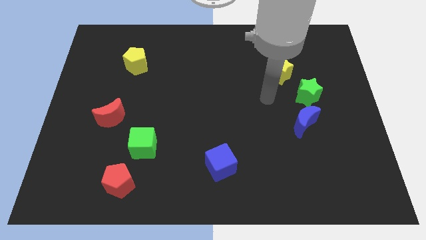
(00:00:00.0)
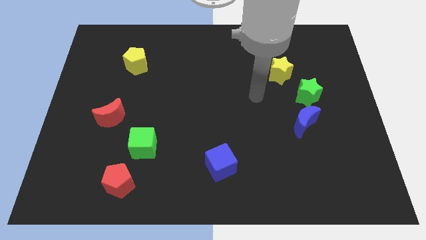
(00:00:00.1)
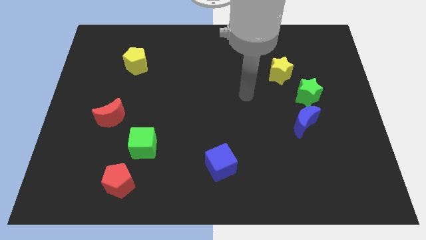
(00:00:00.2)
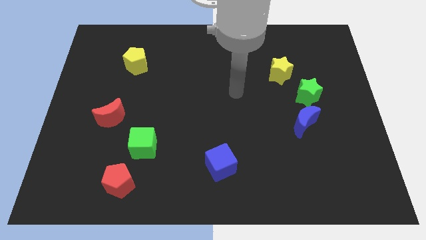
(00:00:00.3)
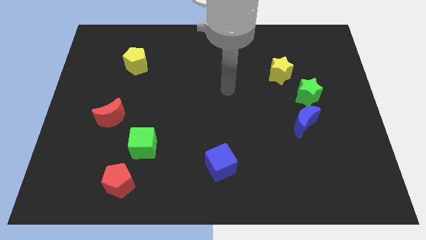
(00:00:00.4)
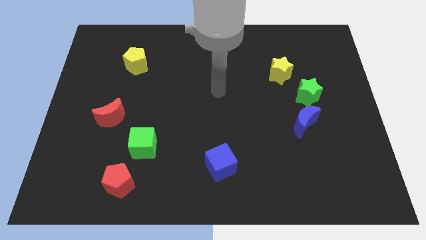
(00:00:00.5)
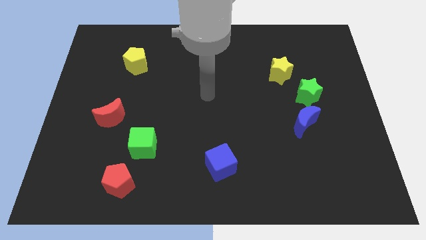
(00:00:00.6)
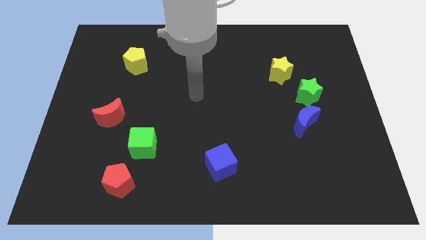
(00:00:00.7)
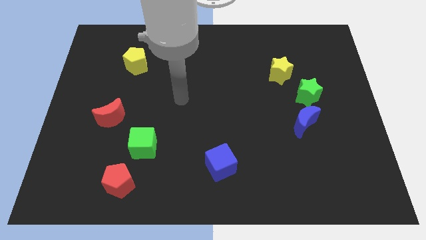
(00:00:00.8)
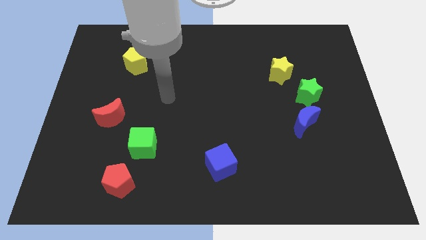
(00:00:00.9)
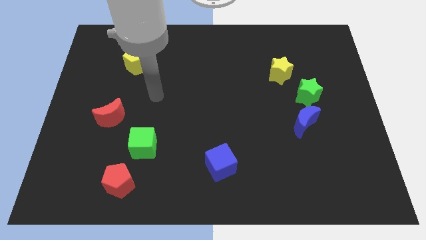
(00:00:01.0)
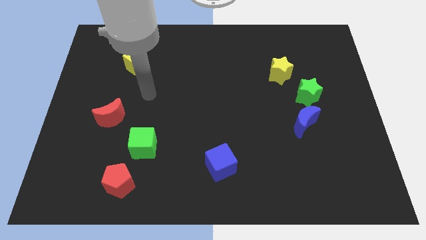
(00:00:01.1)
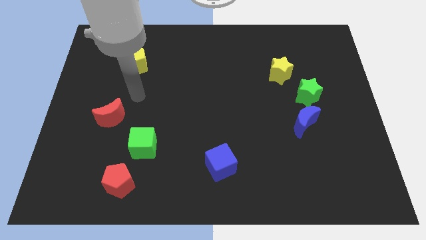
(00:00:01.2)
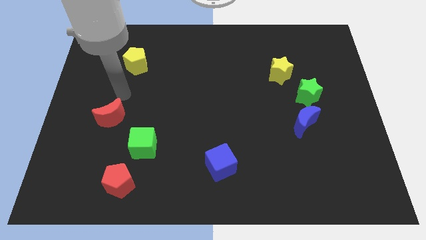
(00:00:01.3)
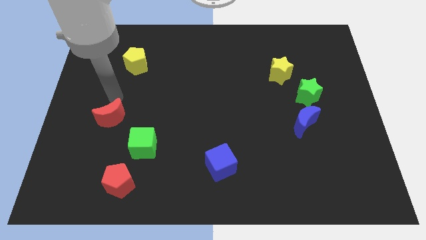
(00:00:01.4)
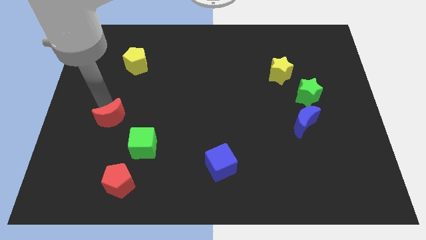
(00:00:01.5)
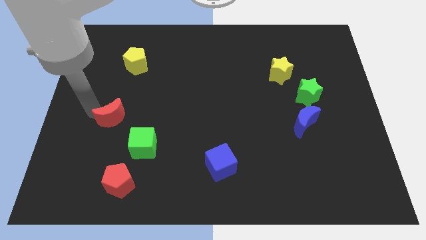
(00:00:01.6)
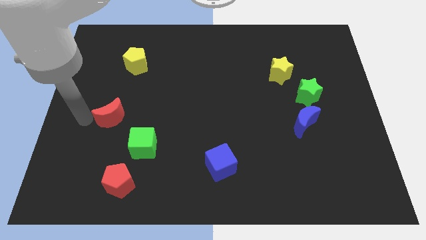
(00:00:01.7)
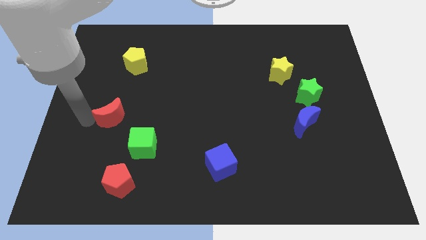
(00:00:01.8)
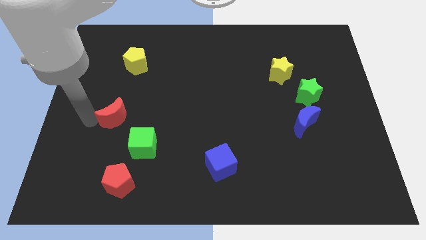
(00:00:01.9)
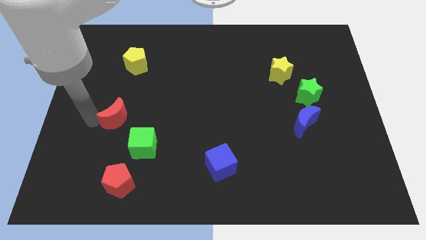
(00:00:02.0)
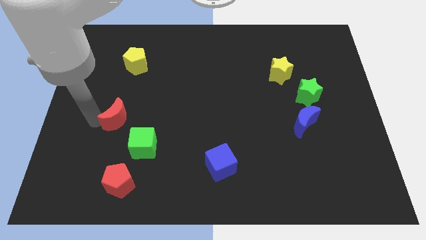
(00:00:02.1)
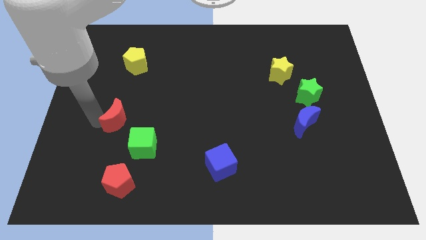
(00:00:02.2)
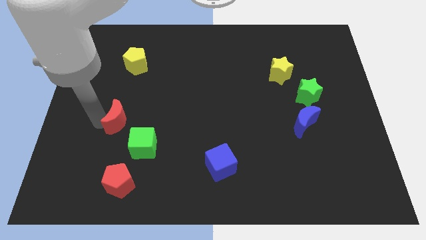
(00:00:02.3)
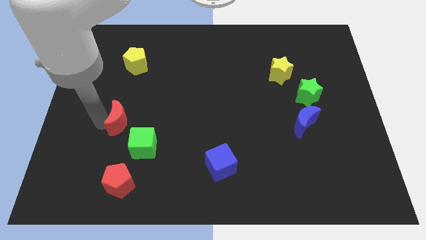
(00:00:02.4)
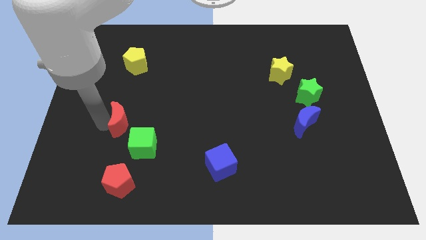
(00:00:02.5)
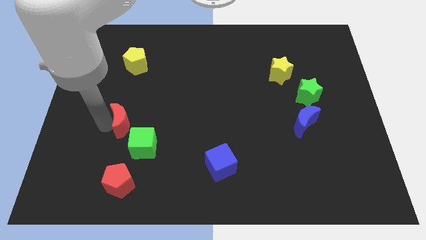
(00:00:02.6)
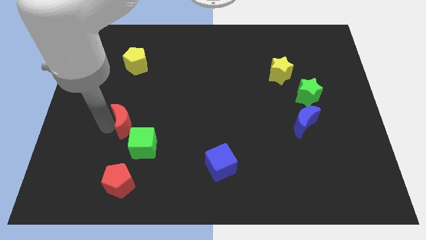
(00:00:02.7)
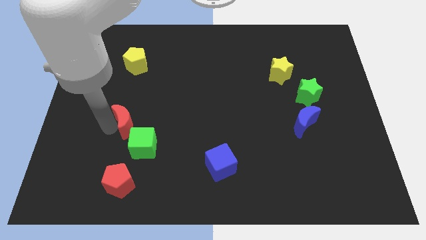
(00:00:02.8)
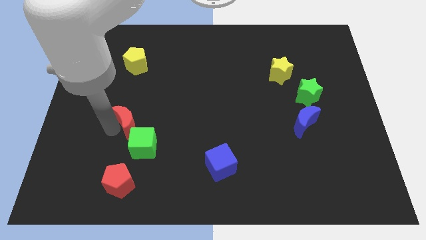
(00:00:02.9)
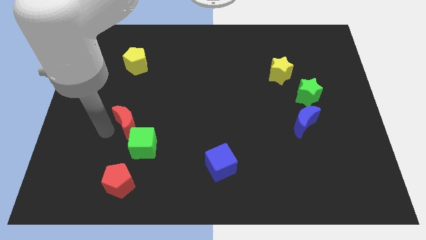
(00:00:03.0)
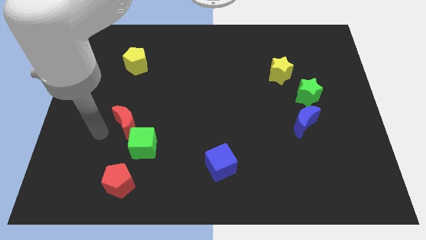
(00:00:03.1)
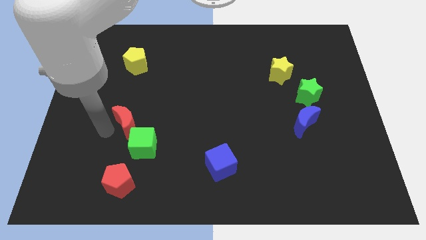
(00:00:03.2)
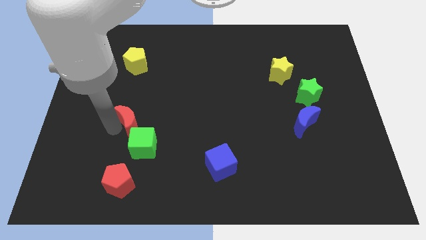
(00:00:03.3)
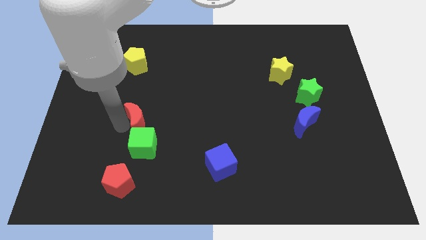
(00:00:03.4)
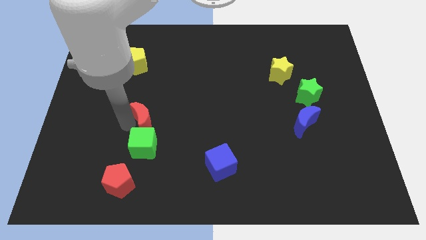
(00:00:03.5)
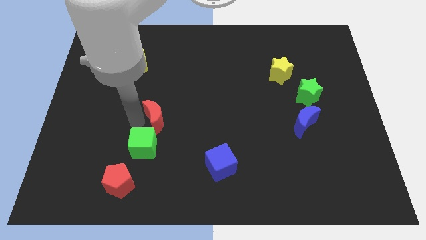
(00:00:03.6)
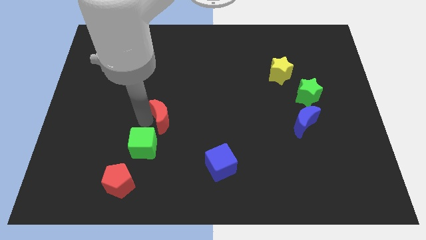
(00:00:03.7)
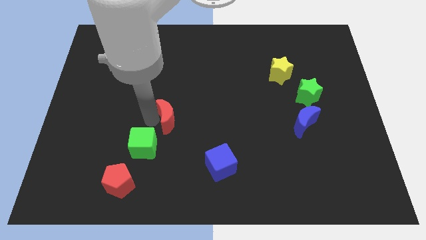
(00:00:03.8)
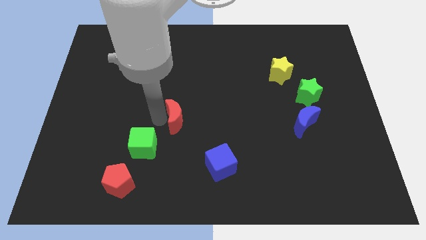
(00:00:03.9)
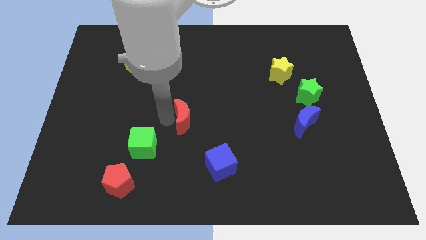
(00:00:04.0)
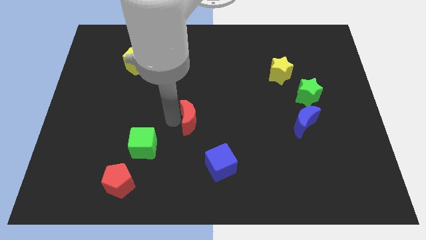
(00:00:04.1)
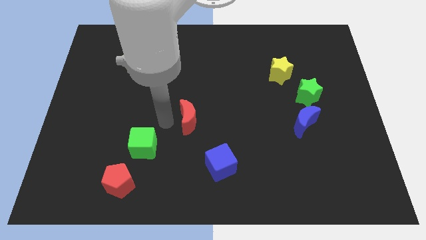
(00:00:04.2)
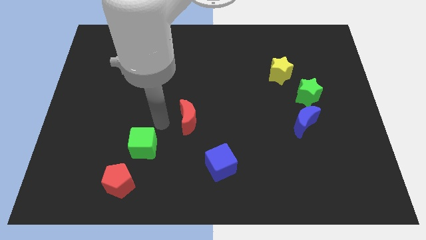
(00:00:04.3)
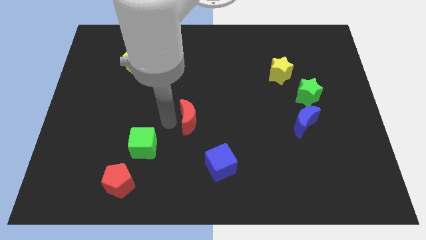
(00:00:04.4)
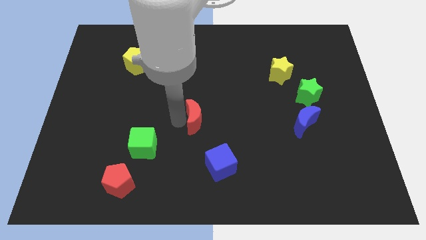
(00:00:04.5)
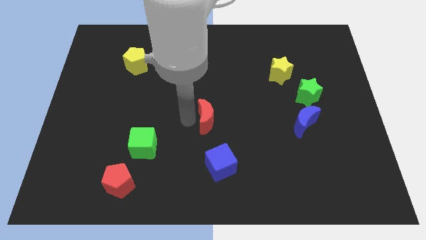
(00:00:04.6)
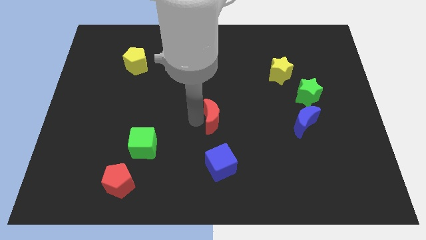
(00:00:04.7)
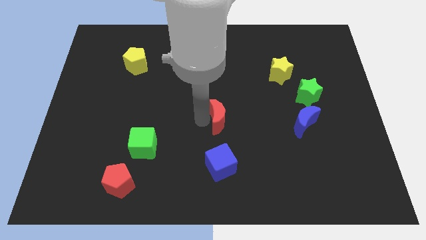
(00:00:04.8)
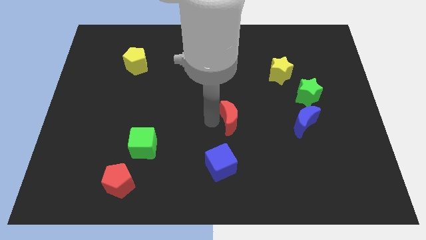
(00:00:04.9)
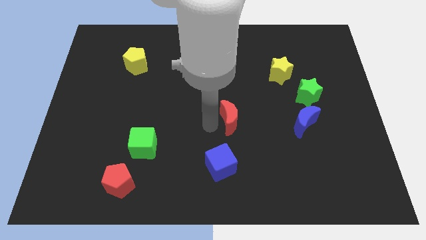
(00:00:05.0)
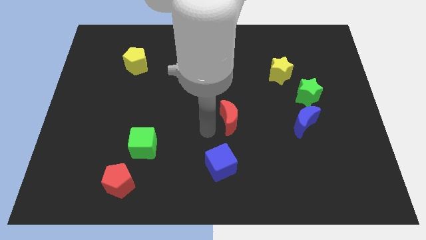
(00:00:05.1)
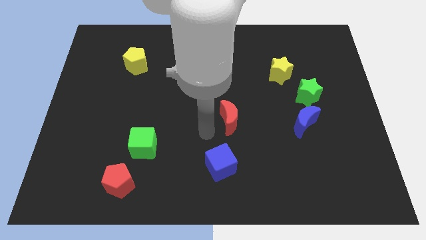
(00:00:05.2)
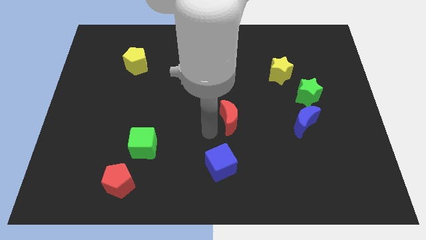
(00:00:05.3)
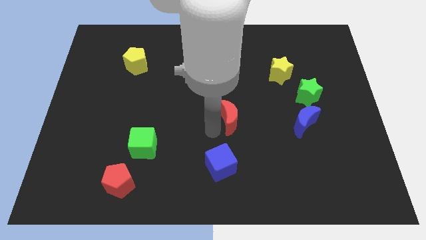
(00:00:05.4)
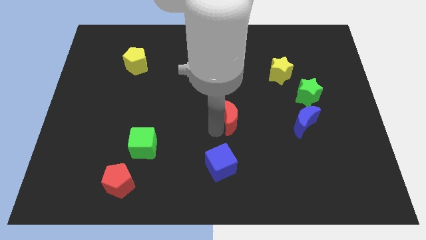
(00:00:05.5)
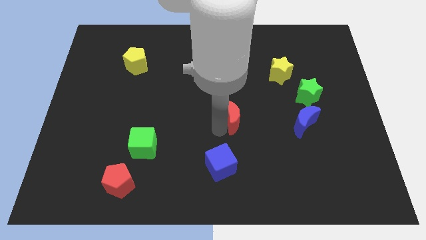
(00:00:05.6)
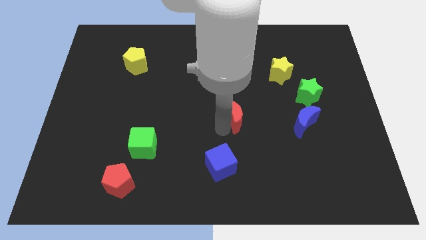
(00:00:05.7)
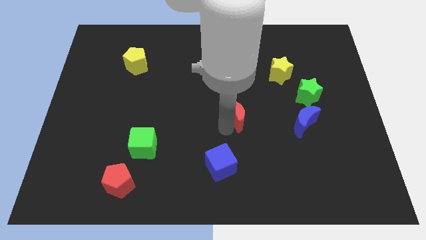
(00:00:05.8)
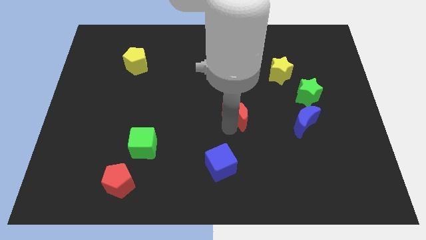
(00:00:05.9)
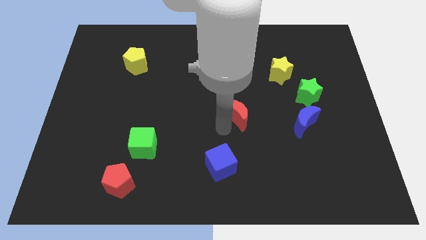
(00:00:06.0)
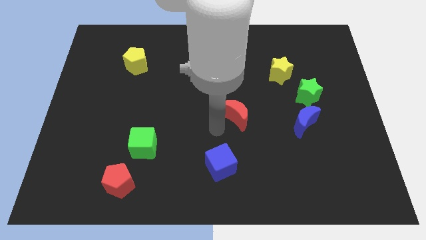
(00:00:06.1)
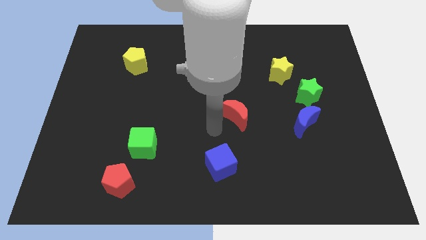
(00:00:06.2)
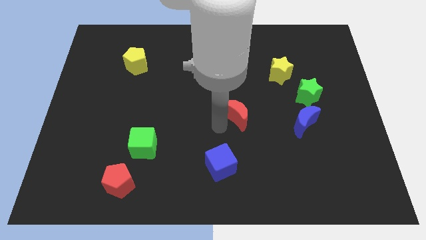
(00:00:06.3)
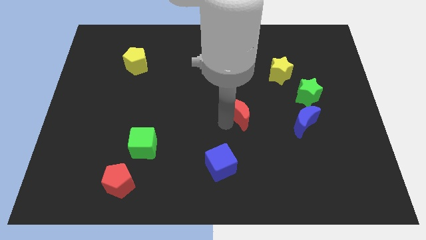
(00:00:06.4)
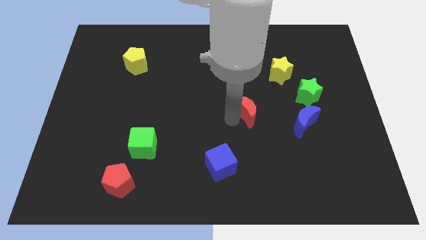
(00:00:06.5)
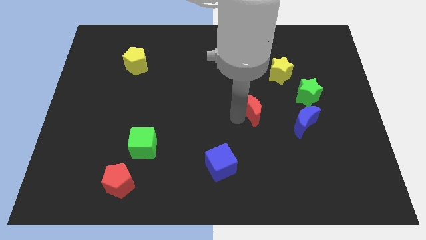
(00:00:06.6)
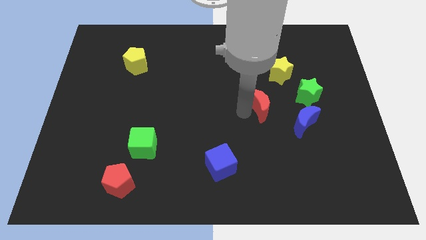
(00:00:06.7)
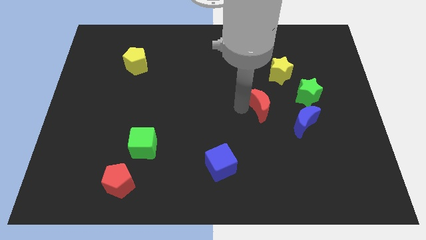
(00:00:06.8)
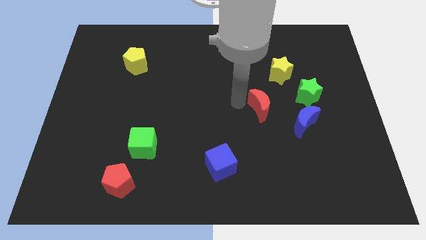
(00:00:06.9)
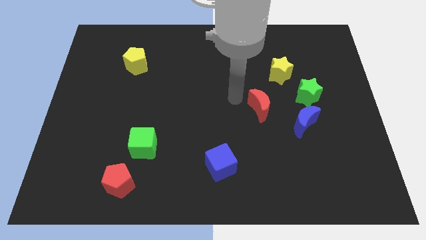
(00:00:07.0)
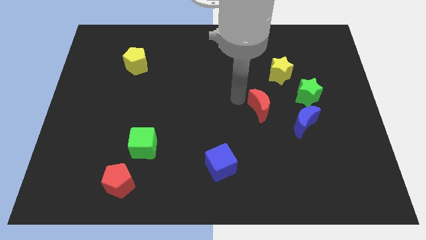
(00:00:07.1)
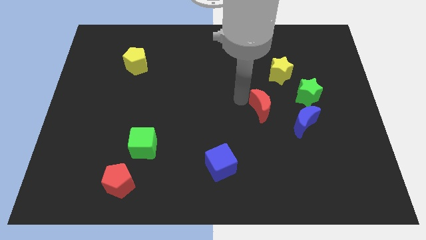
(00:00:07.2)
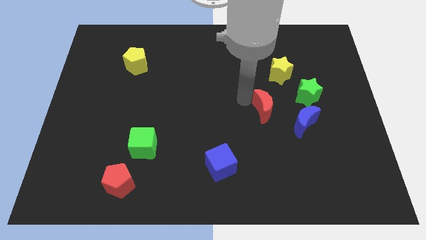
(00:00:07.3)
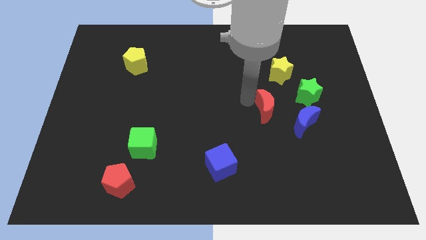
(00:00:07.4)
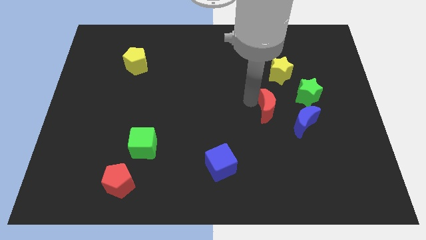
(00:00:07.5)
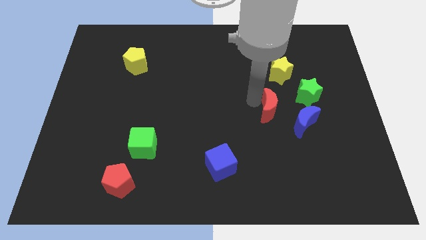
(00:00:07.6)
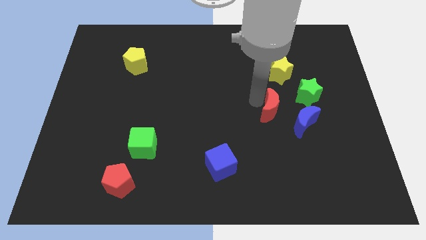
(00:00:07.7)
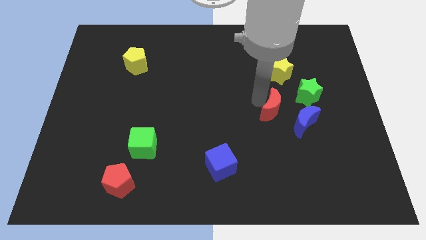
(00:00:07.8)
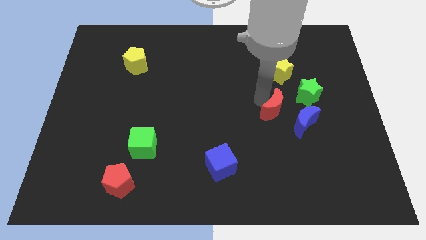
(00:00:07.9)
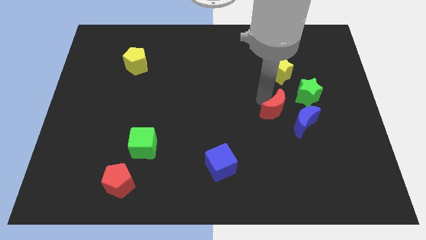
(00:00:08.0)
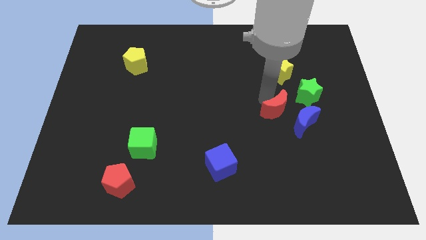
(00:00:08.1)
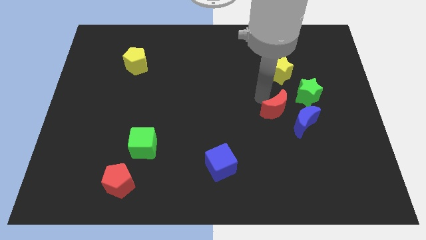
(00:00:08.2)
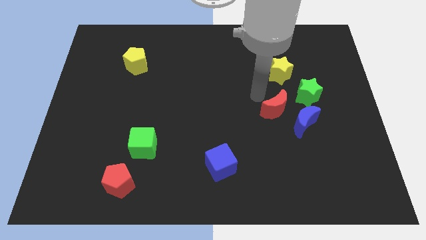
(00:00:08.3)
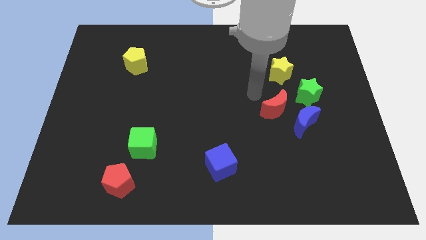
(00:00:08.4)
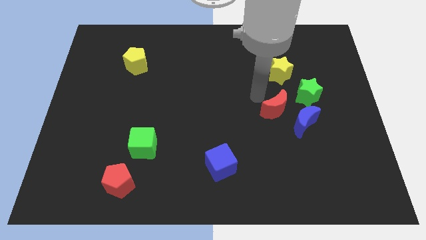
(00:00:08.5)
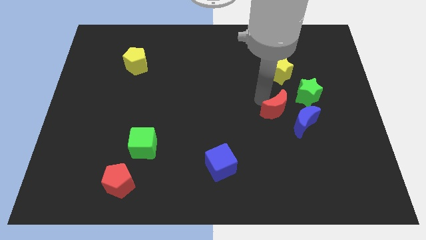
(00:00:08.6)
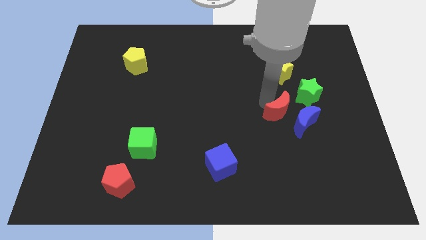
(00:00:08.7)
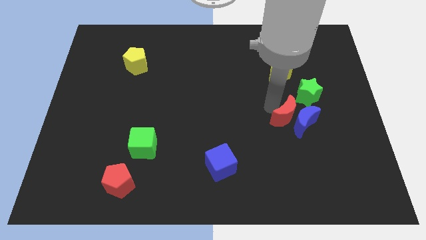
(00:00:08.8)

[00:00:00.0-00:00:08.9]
put the red moon to the blue moon
